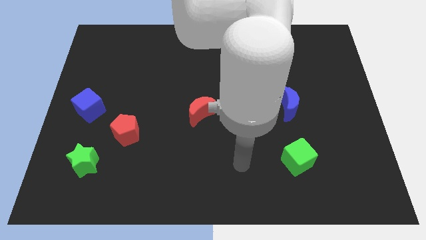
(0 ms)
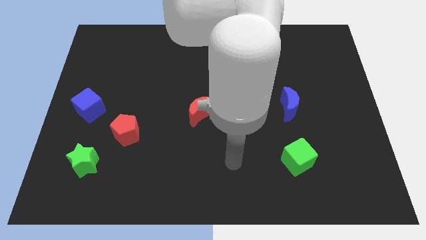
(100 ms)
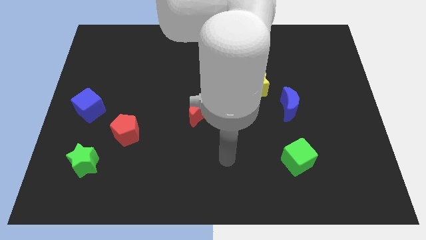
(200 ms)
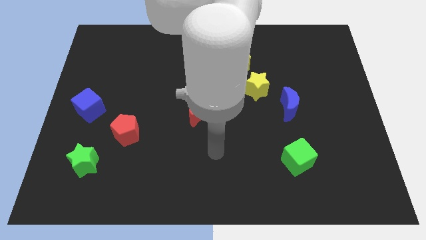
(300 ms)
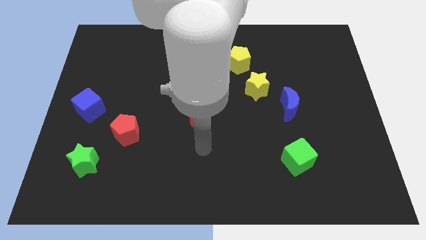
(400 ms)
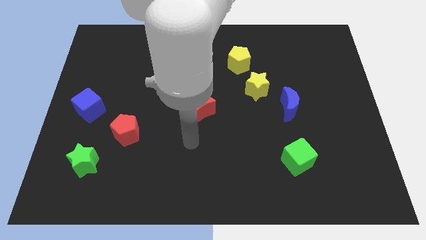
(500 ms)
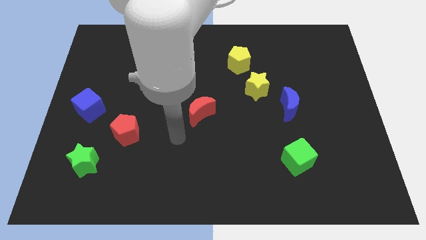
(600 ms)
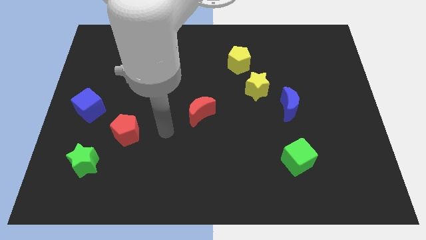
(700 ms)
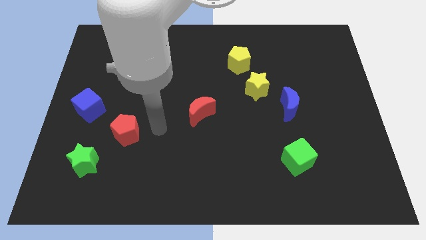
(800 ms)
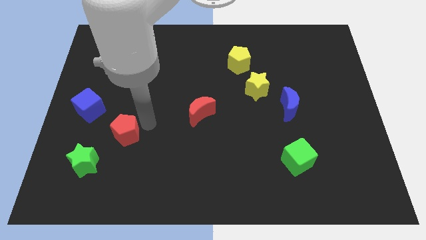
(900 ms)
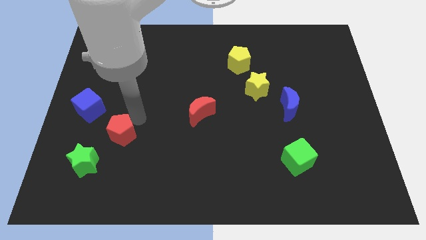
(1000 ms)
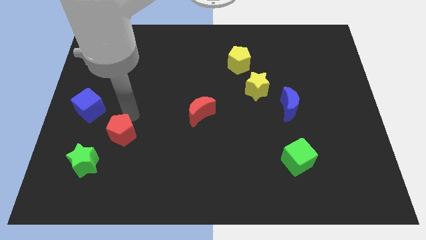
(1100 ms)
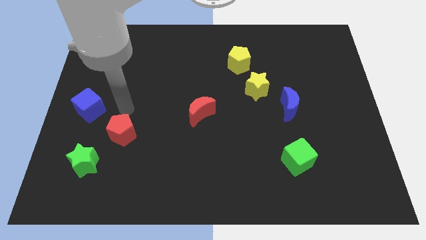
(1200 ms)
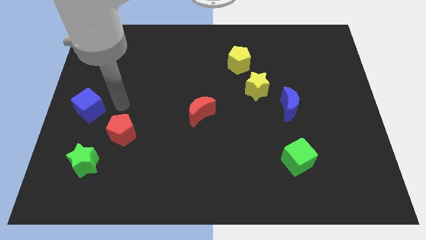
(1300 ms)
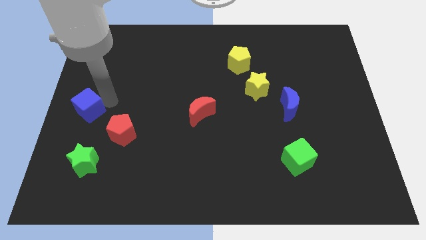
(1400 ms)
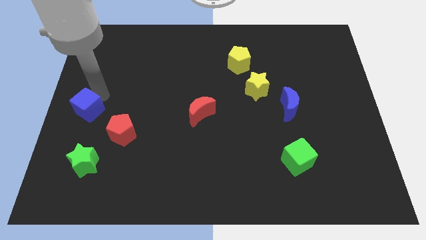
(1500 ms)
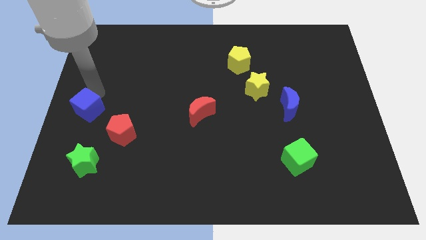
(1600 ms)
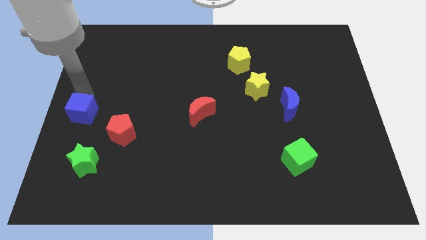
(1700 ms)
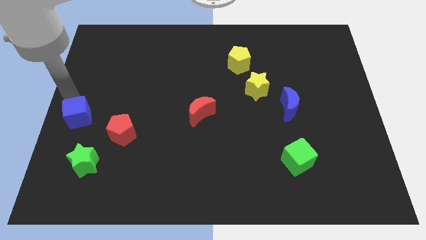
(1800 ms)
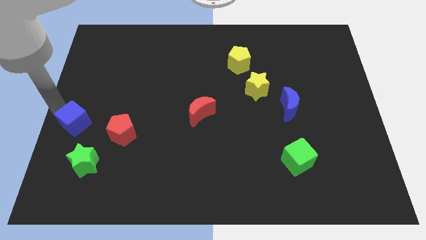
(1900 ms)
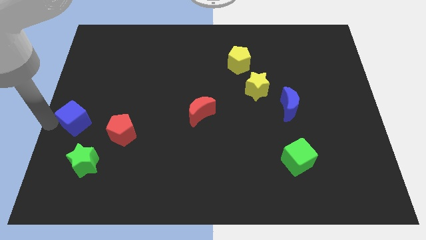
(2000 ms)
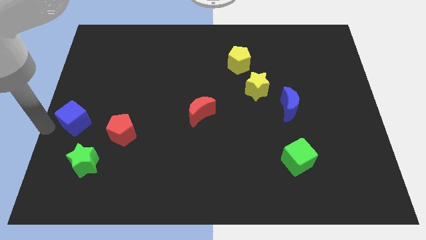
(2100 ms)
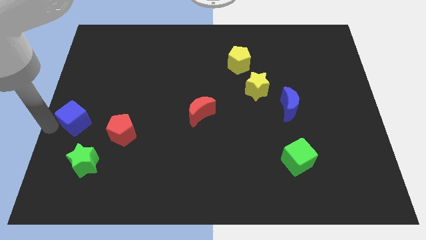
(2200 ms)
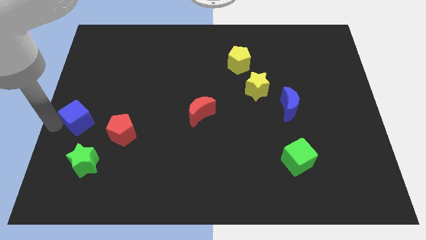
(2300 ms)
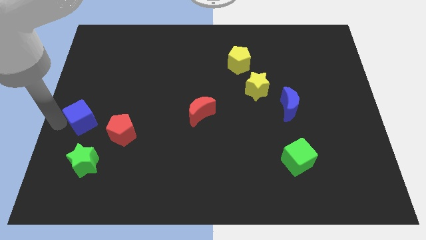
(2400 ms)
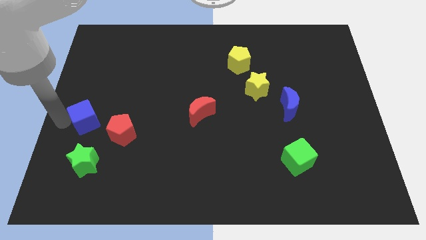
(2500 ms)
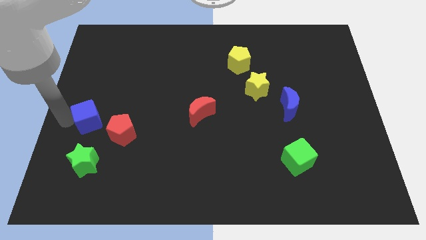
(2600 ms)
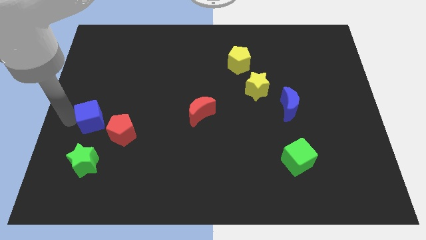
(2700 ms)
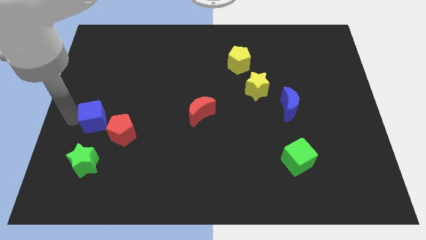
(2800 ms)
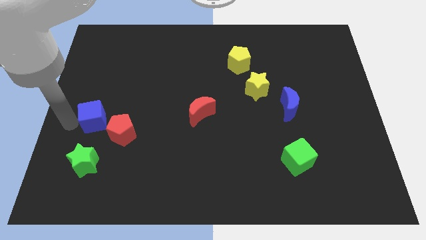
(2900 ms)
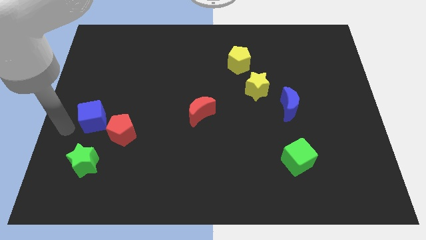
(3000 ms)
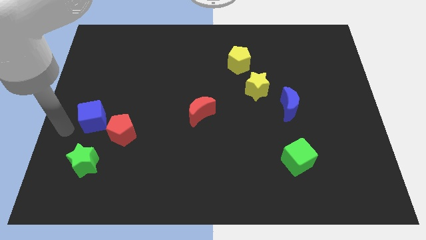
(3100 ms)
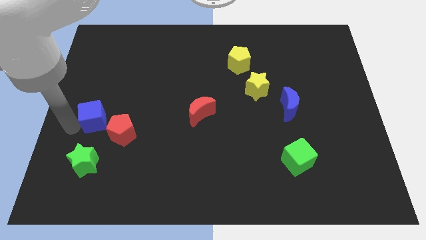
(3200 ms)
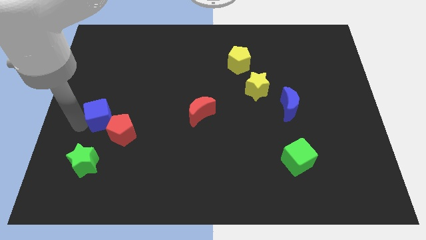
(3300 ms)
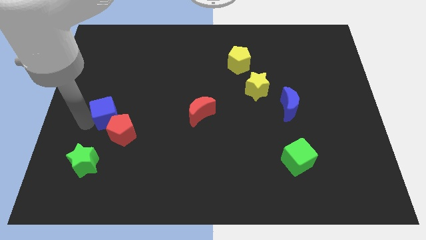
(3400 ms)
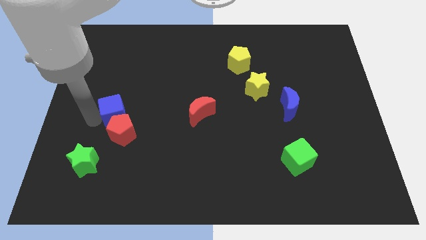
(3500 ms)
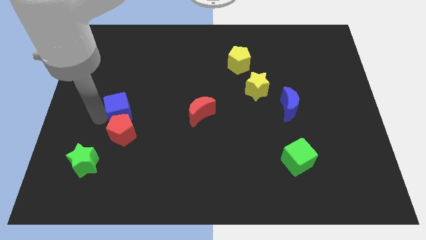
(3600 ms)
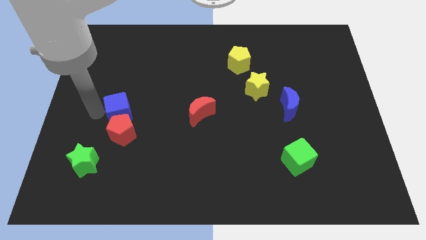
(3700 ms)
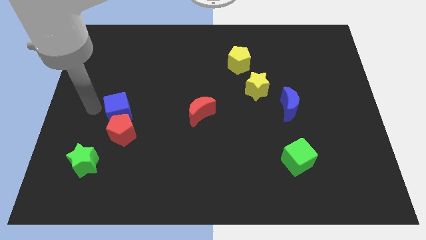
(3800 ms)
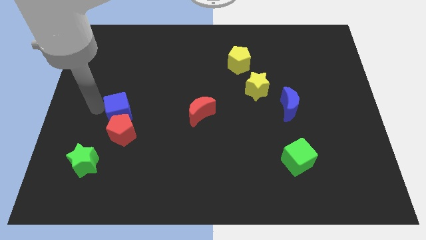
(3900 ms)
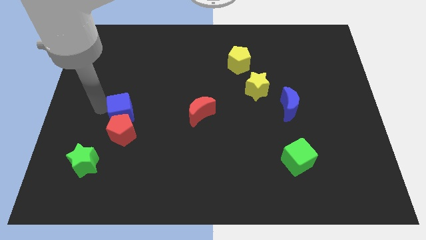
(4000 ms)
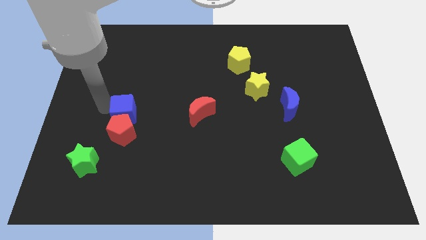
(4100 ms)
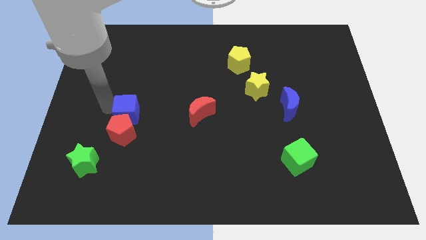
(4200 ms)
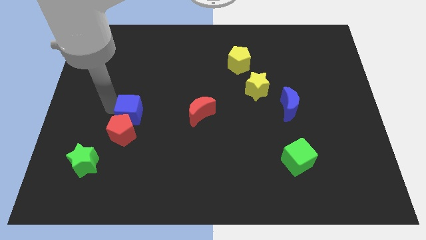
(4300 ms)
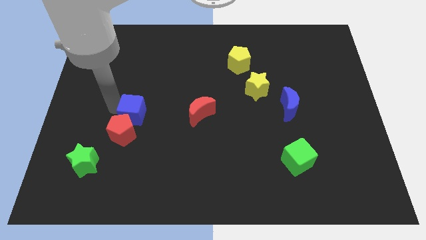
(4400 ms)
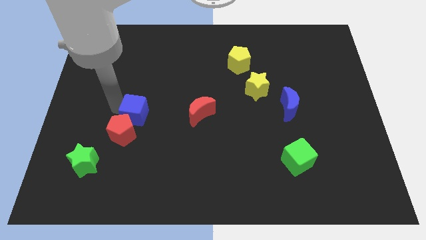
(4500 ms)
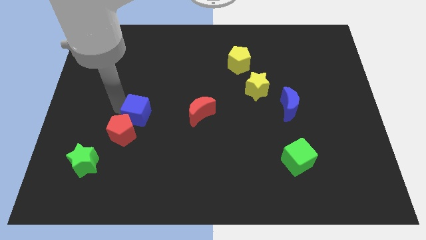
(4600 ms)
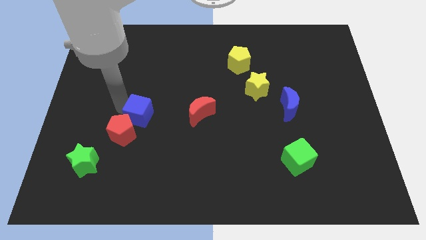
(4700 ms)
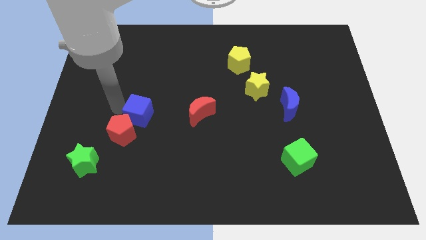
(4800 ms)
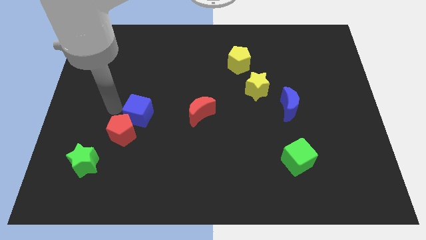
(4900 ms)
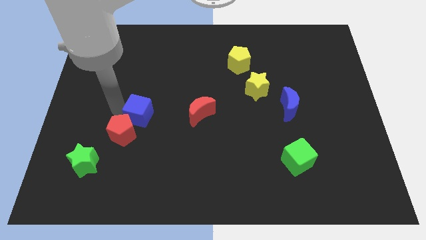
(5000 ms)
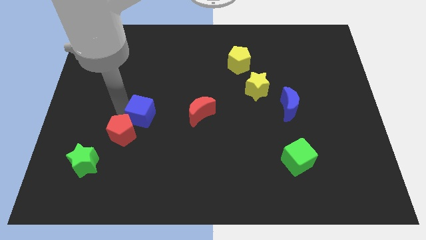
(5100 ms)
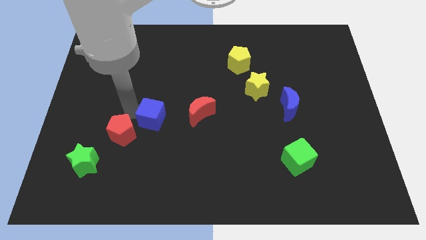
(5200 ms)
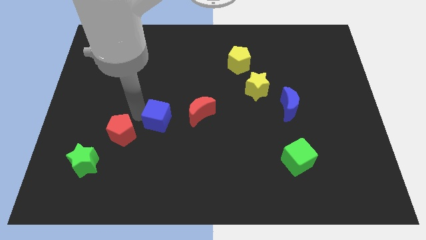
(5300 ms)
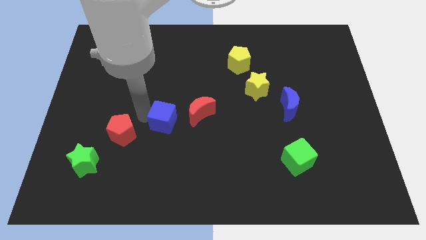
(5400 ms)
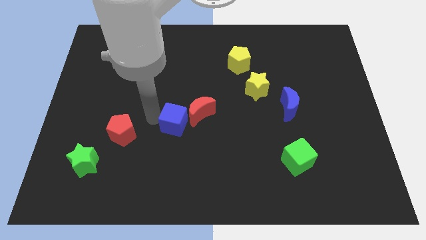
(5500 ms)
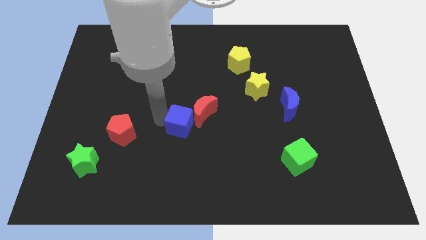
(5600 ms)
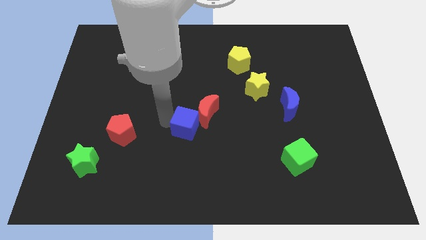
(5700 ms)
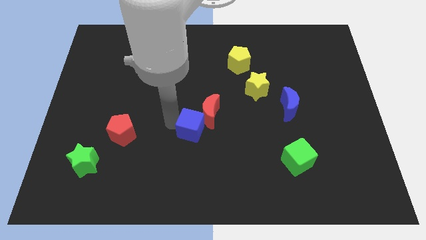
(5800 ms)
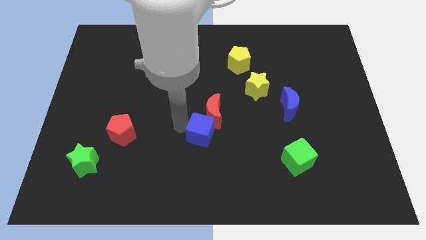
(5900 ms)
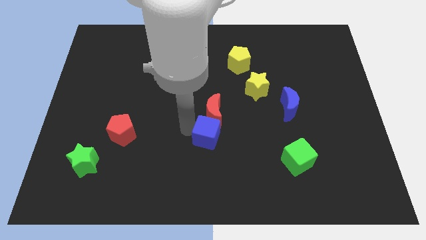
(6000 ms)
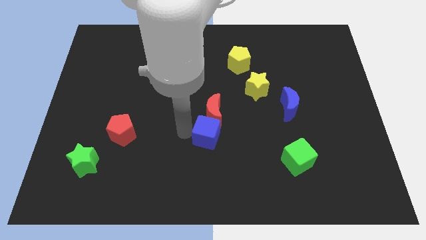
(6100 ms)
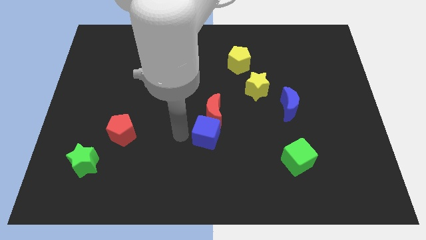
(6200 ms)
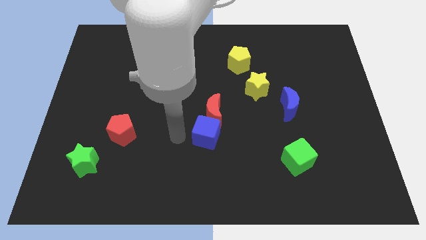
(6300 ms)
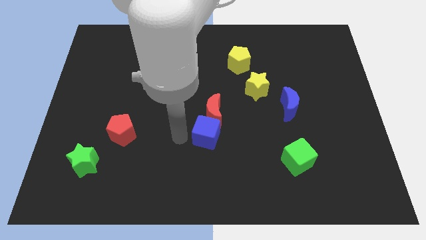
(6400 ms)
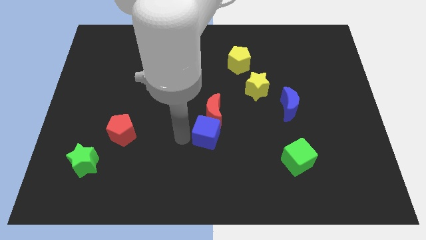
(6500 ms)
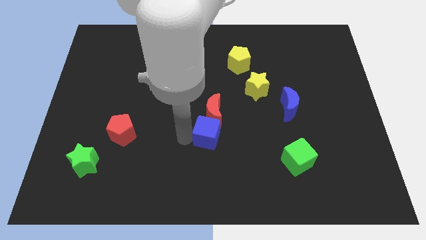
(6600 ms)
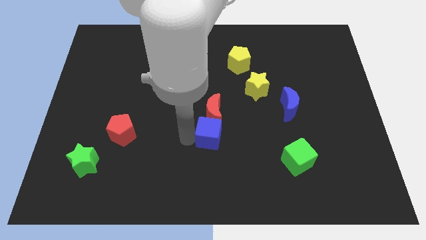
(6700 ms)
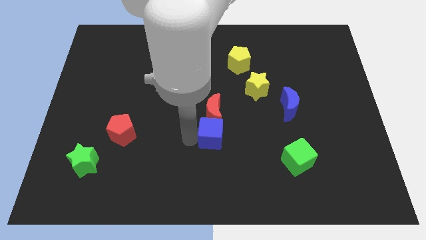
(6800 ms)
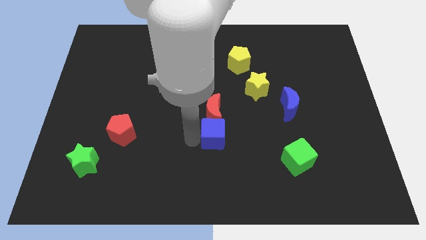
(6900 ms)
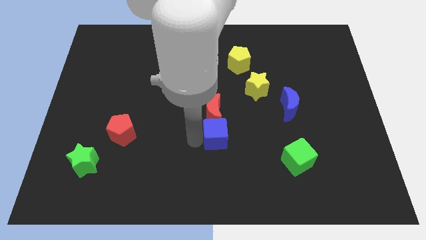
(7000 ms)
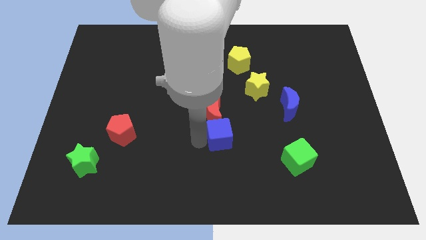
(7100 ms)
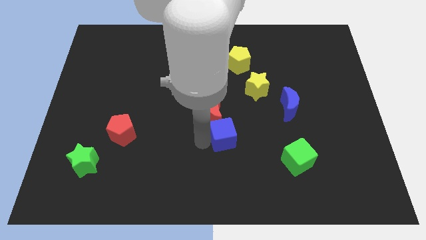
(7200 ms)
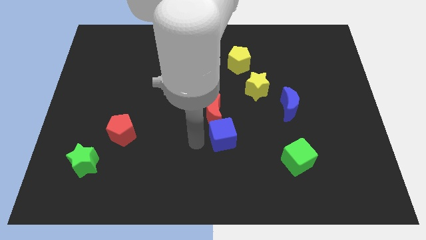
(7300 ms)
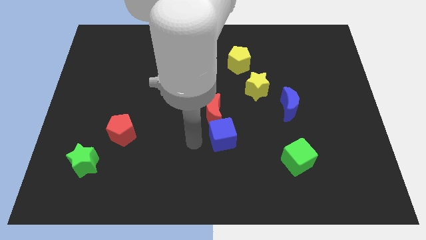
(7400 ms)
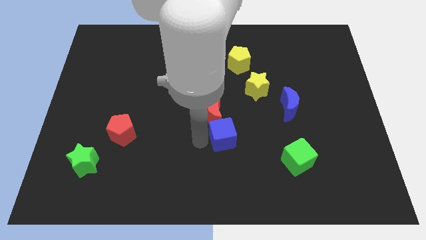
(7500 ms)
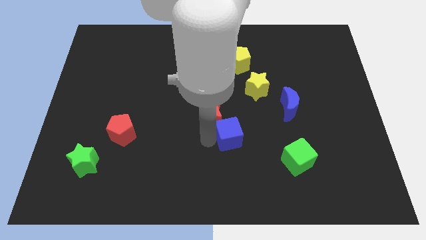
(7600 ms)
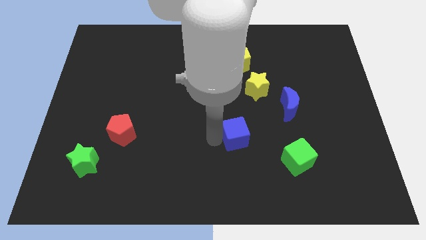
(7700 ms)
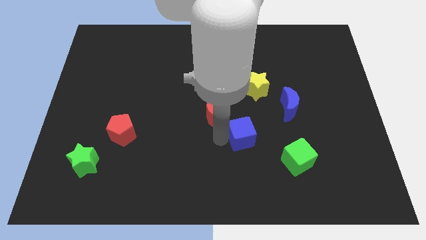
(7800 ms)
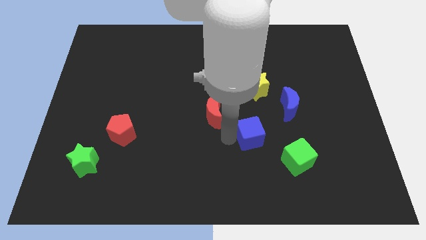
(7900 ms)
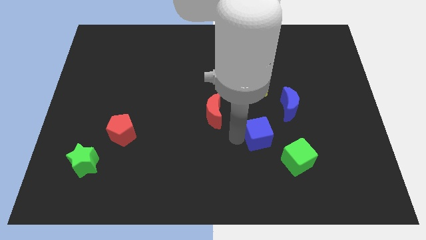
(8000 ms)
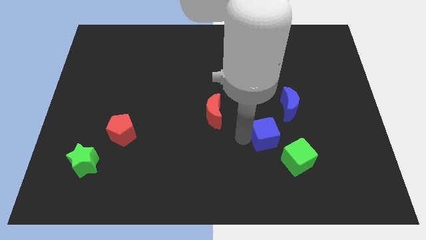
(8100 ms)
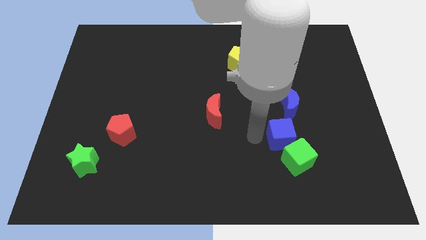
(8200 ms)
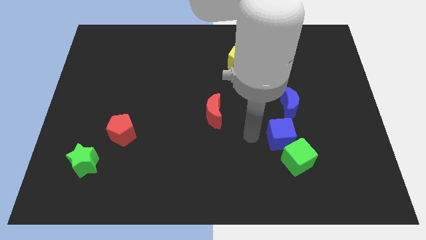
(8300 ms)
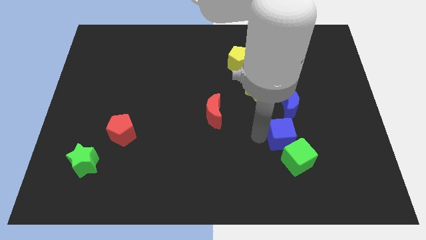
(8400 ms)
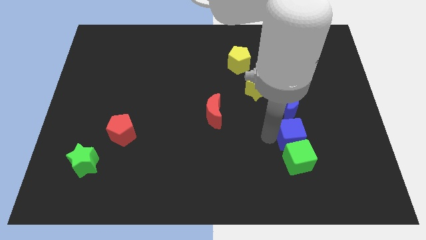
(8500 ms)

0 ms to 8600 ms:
move the blue cube to the top right of the green cube
